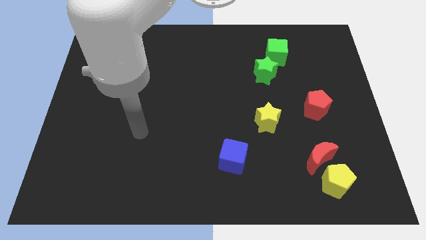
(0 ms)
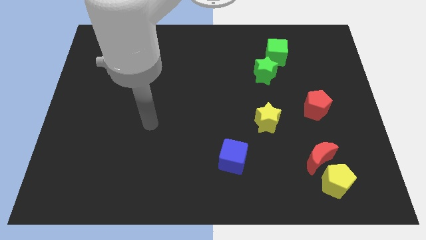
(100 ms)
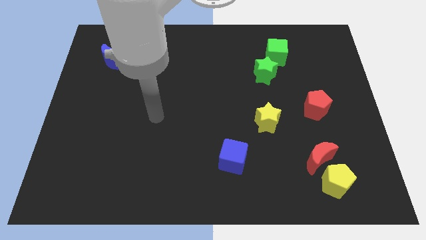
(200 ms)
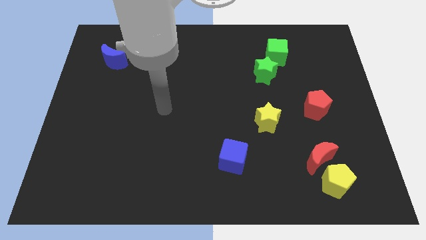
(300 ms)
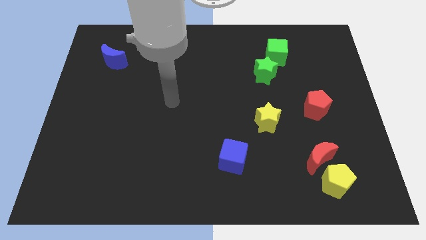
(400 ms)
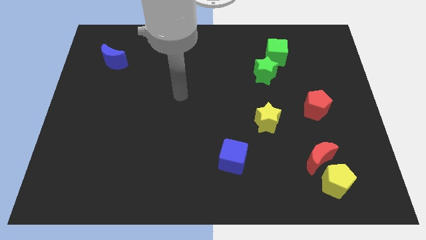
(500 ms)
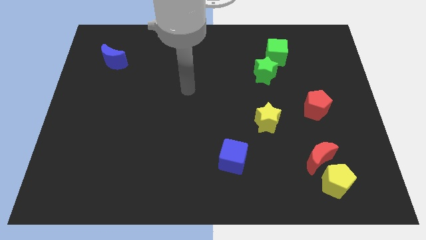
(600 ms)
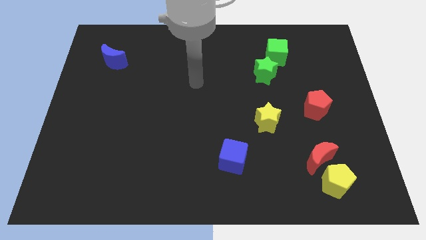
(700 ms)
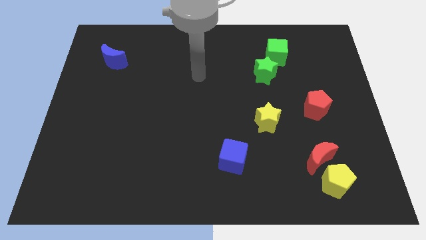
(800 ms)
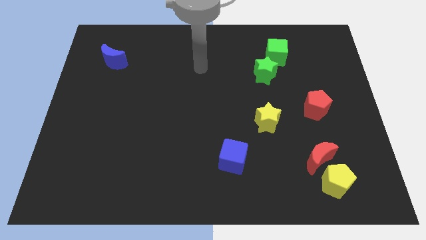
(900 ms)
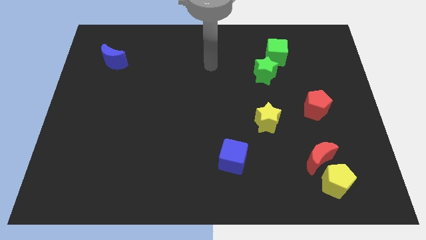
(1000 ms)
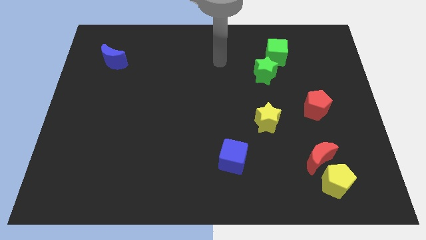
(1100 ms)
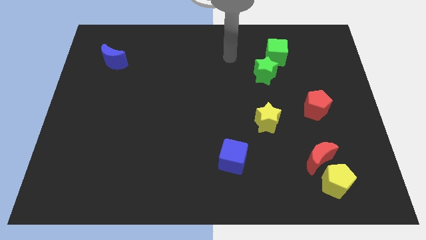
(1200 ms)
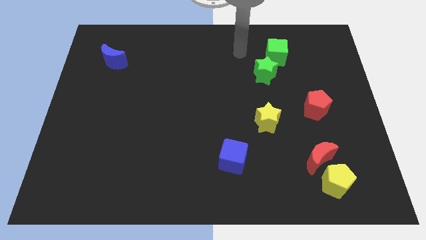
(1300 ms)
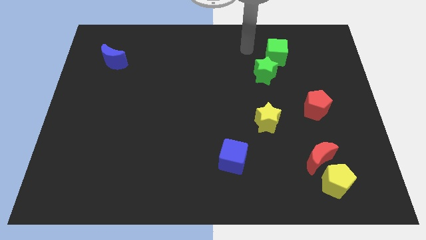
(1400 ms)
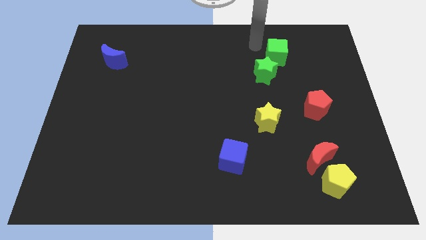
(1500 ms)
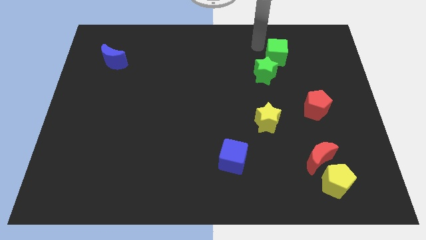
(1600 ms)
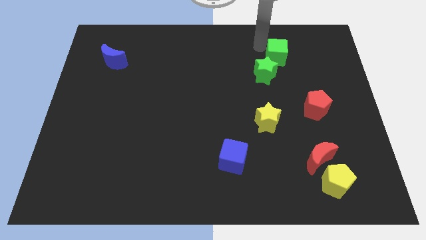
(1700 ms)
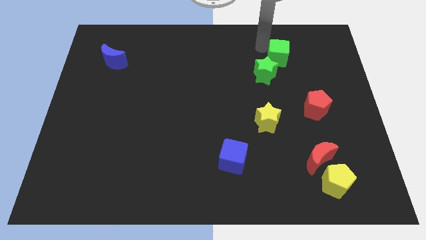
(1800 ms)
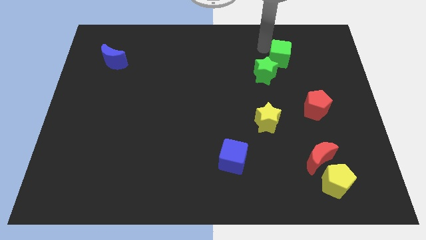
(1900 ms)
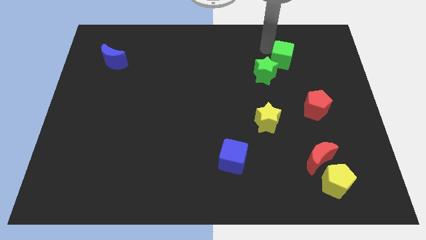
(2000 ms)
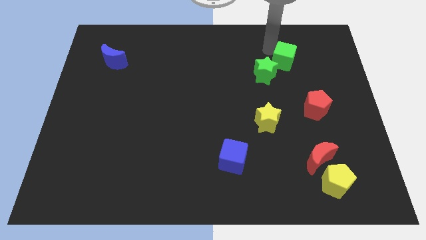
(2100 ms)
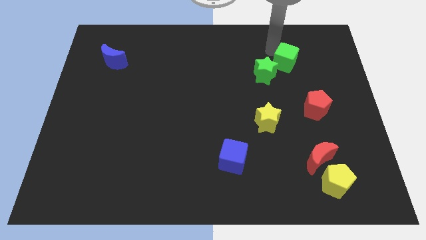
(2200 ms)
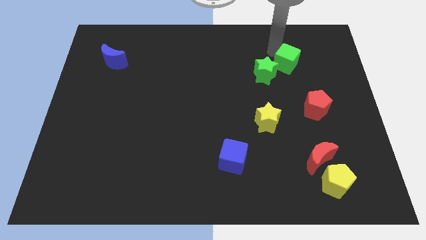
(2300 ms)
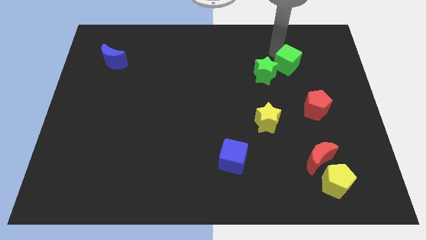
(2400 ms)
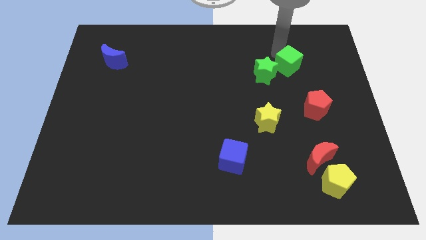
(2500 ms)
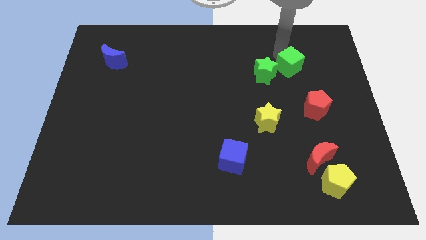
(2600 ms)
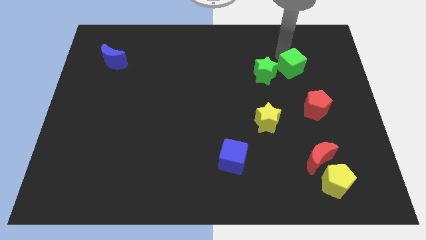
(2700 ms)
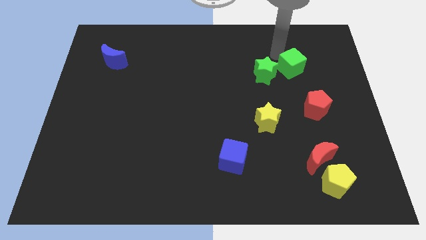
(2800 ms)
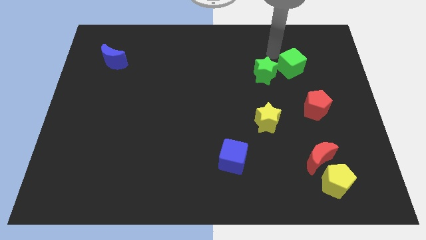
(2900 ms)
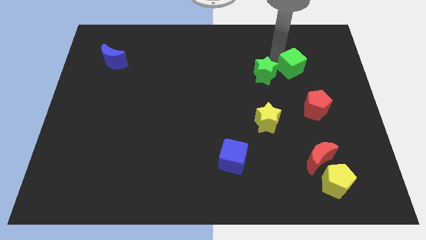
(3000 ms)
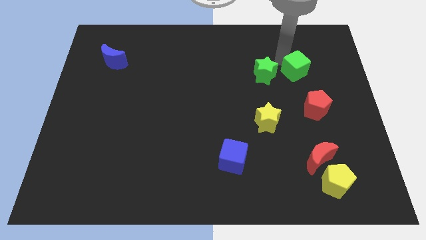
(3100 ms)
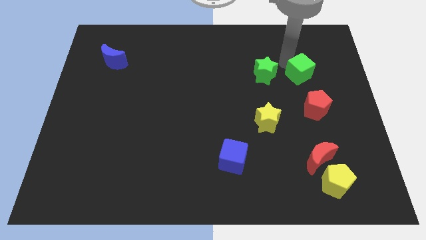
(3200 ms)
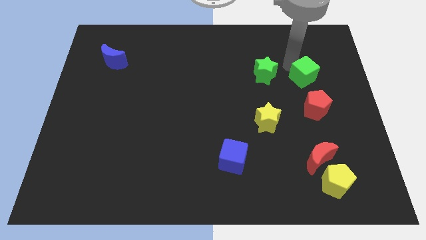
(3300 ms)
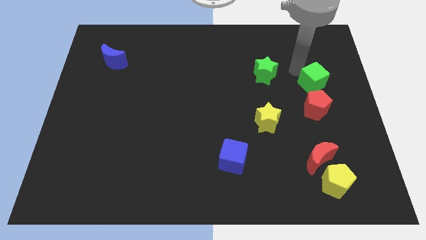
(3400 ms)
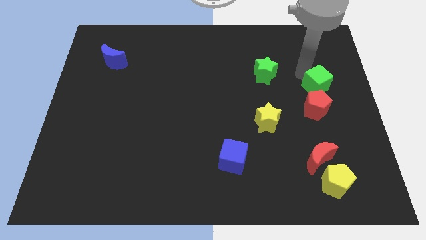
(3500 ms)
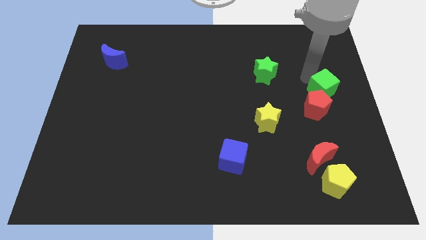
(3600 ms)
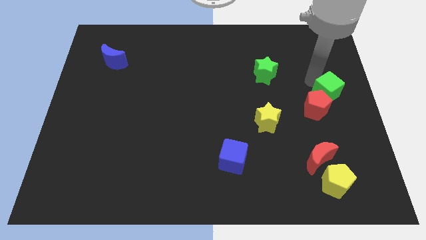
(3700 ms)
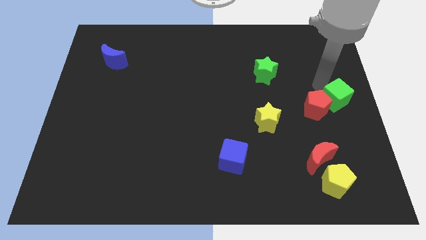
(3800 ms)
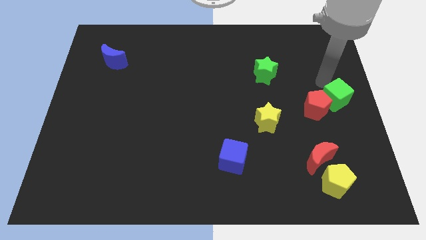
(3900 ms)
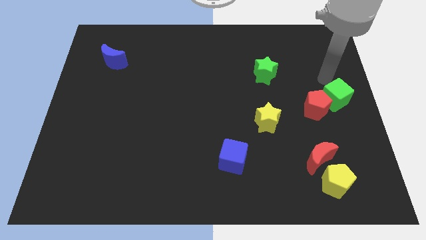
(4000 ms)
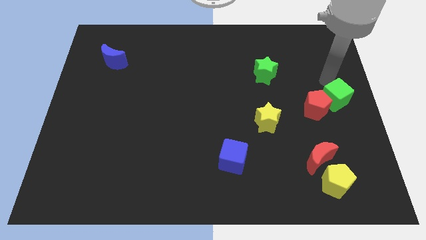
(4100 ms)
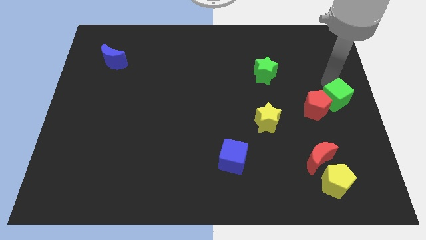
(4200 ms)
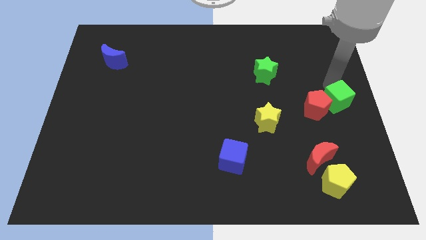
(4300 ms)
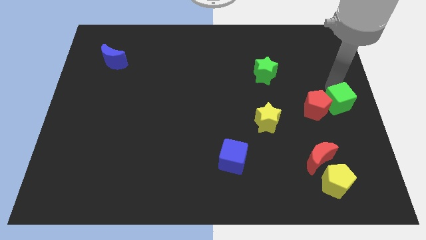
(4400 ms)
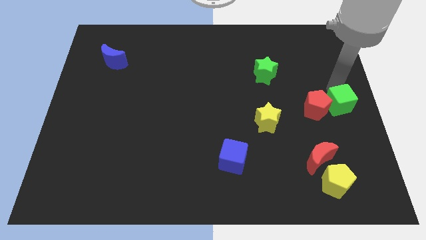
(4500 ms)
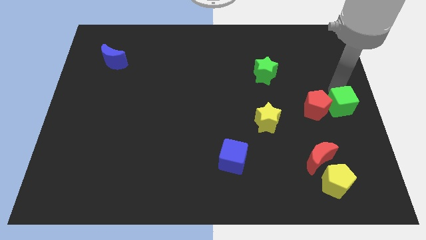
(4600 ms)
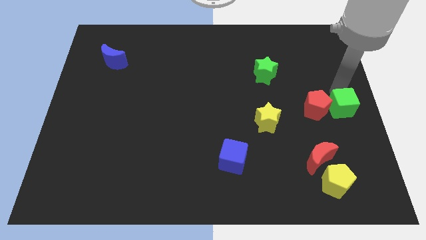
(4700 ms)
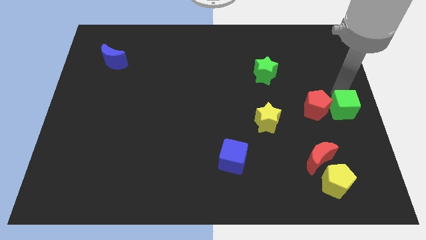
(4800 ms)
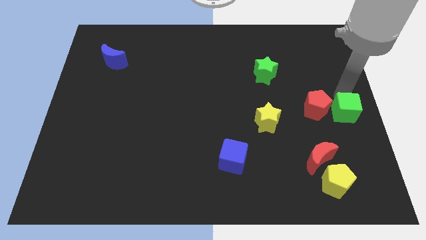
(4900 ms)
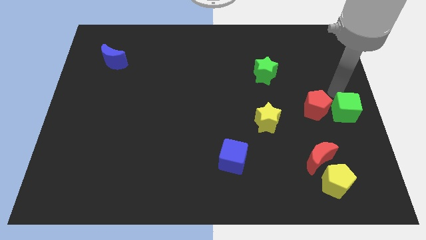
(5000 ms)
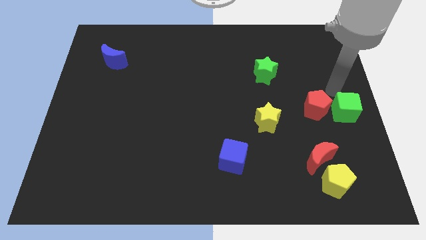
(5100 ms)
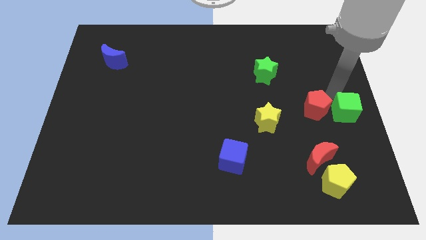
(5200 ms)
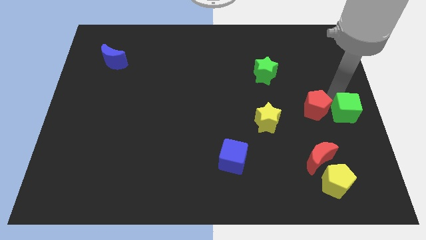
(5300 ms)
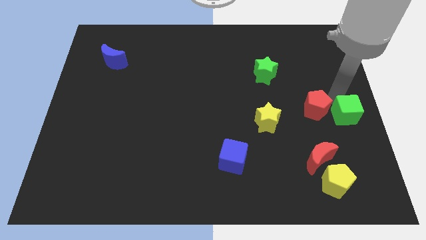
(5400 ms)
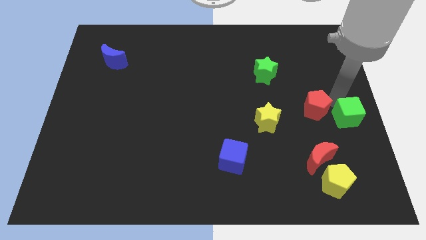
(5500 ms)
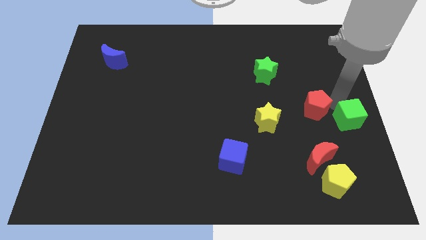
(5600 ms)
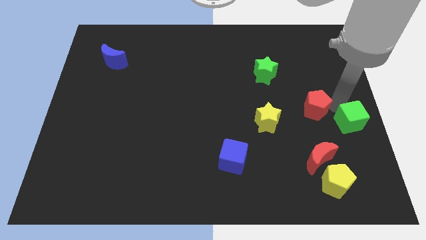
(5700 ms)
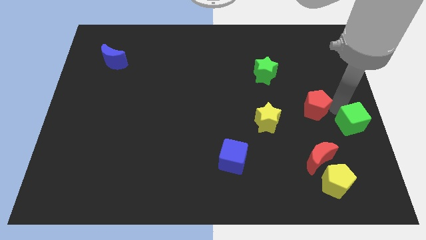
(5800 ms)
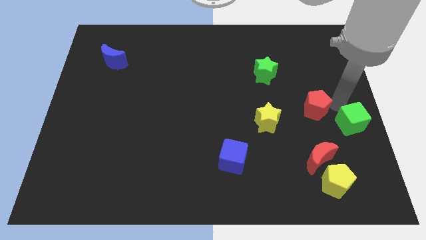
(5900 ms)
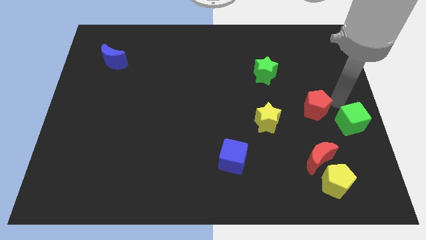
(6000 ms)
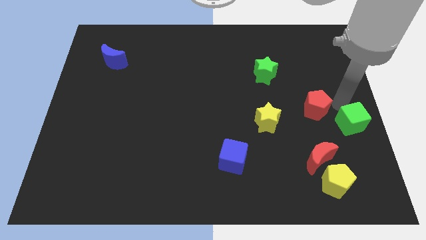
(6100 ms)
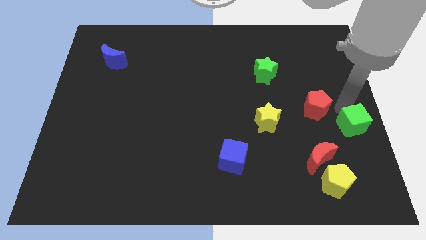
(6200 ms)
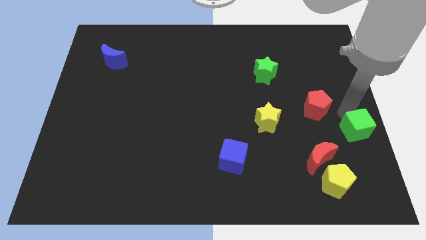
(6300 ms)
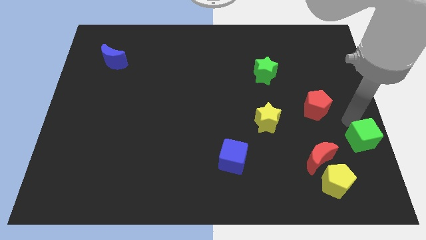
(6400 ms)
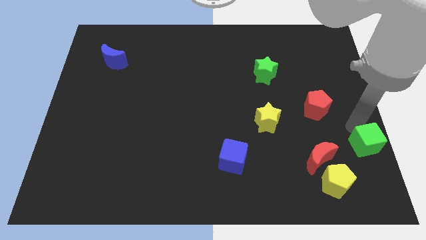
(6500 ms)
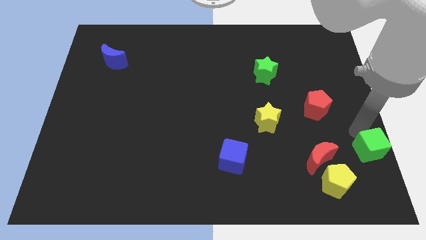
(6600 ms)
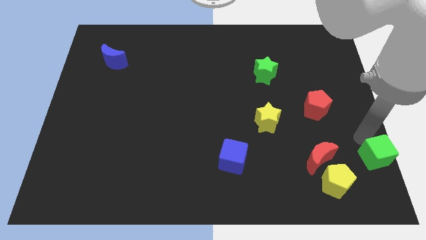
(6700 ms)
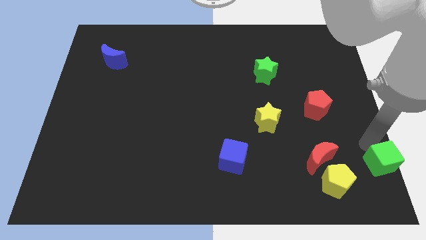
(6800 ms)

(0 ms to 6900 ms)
push the green cube to the bottom right of the board
